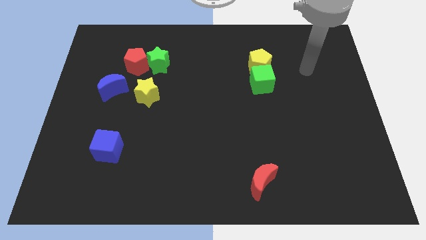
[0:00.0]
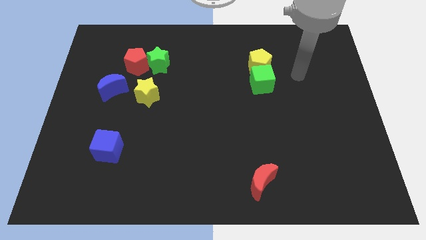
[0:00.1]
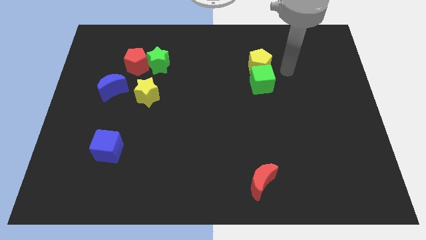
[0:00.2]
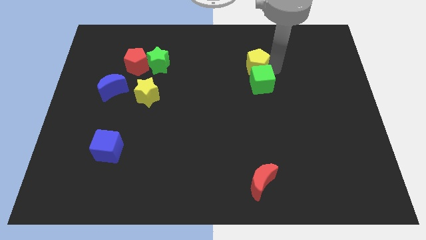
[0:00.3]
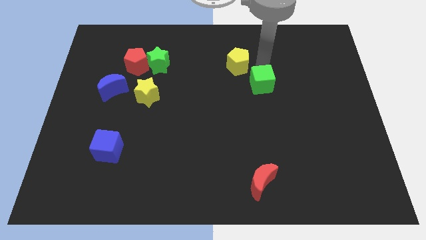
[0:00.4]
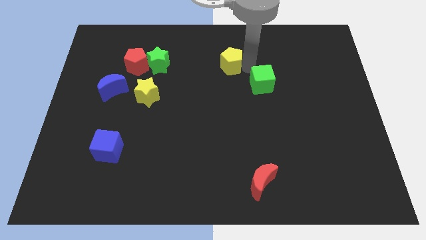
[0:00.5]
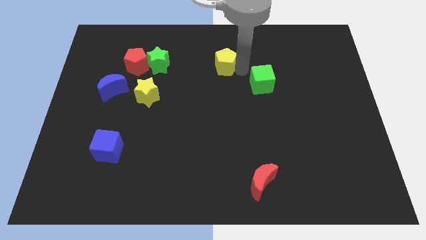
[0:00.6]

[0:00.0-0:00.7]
move the green cube away from the yellow pentagon

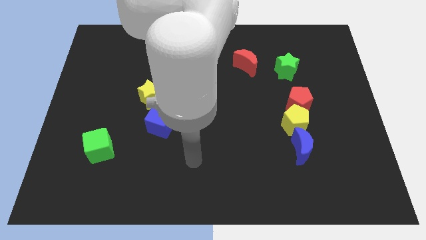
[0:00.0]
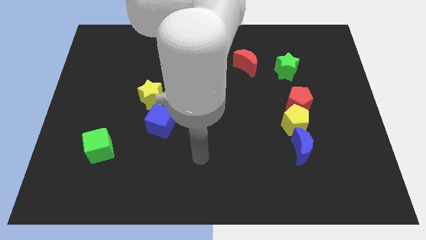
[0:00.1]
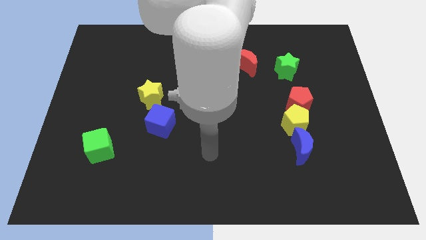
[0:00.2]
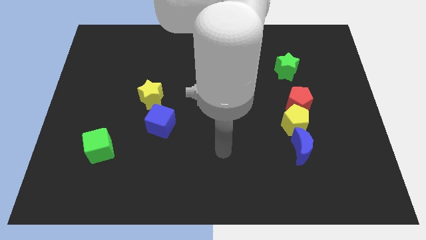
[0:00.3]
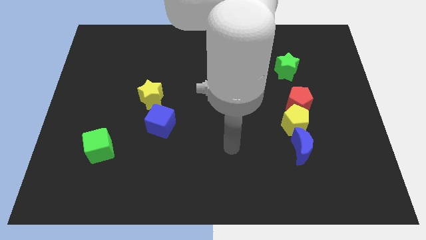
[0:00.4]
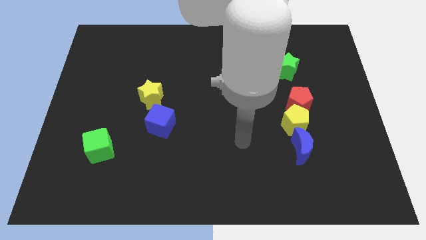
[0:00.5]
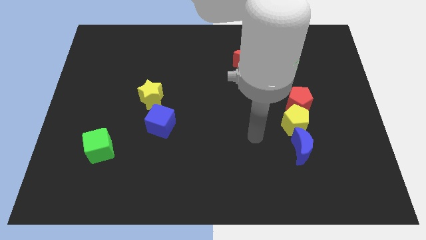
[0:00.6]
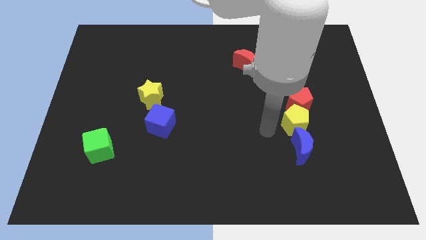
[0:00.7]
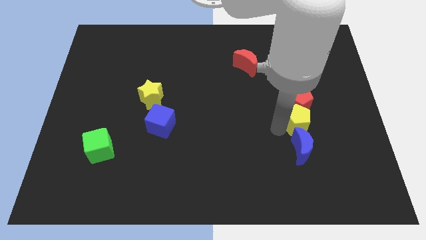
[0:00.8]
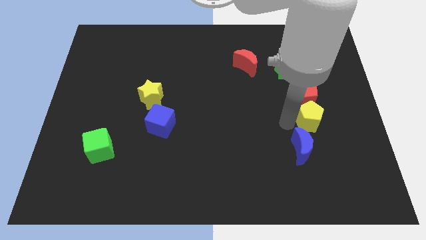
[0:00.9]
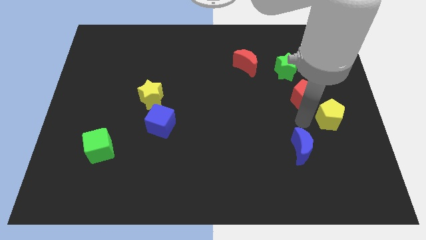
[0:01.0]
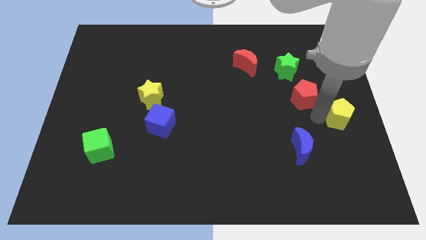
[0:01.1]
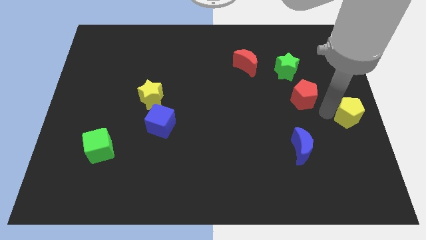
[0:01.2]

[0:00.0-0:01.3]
separate the red pentagon from the yellow pentagon

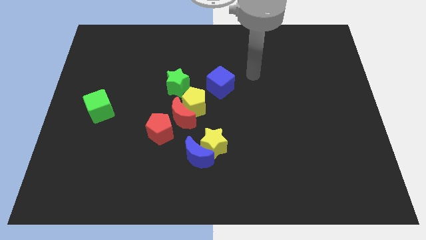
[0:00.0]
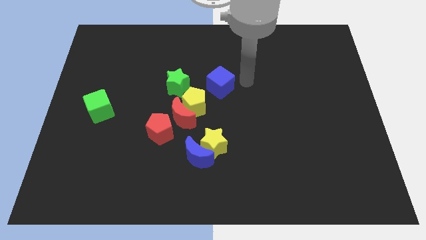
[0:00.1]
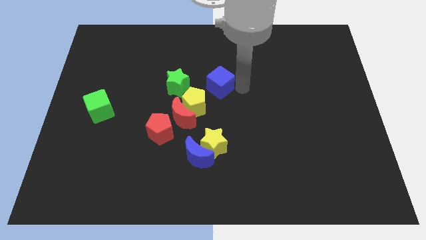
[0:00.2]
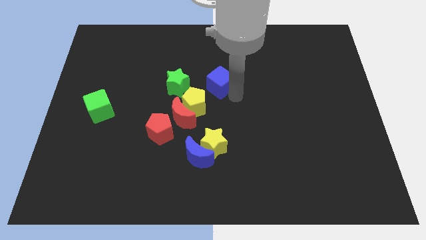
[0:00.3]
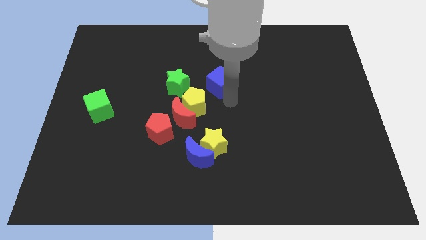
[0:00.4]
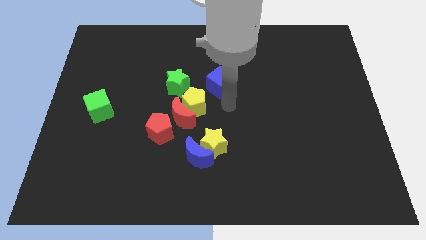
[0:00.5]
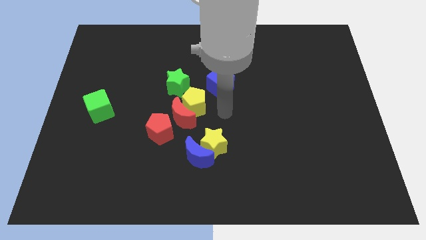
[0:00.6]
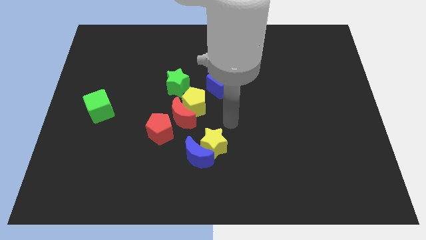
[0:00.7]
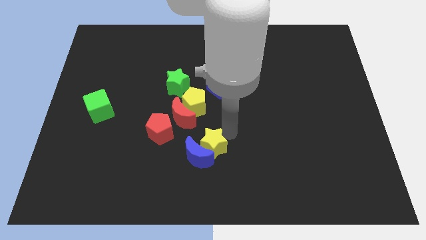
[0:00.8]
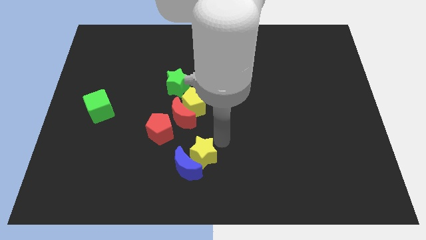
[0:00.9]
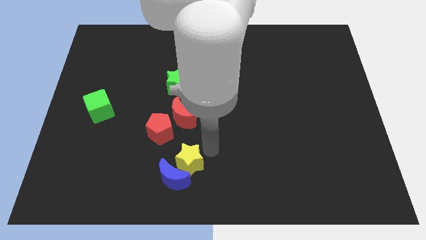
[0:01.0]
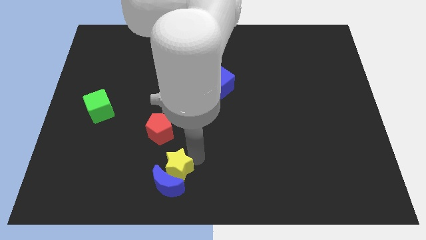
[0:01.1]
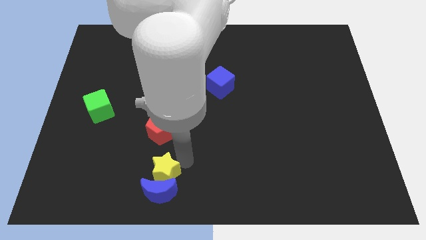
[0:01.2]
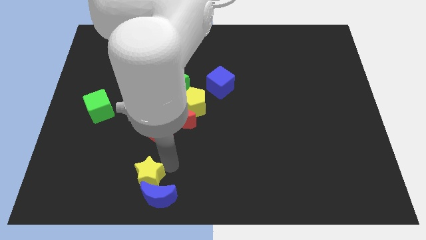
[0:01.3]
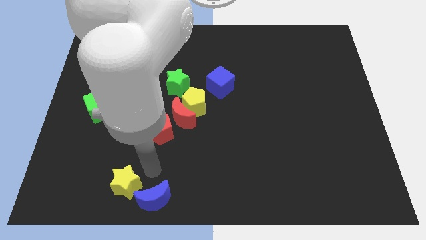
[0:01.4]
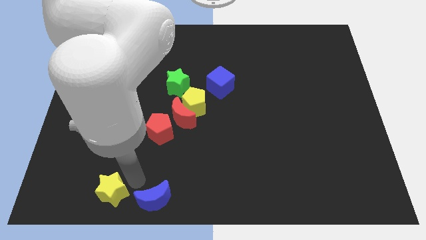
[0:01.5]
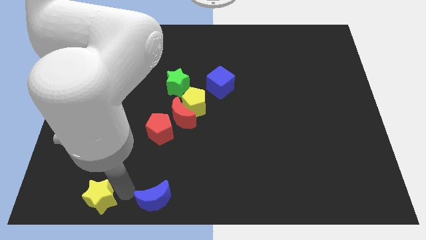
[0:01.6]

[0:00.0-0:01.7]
move the blue moon away from the yellow star

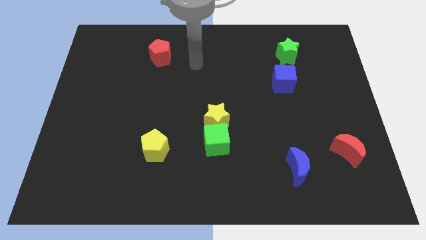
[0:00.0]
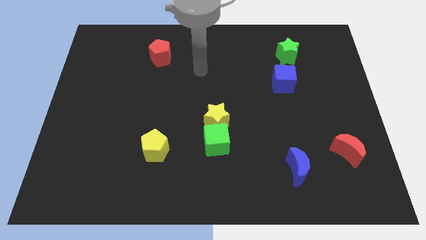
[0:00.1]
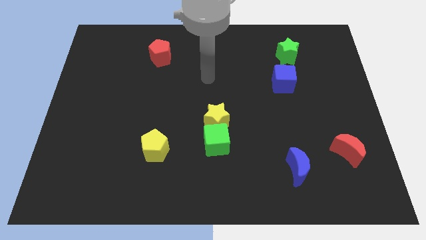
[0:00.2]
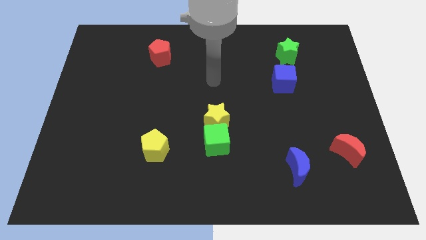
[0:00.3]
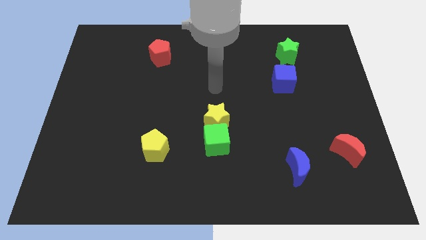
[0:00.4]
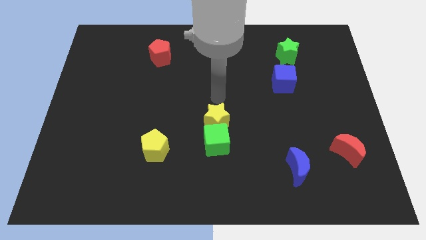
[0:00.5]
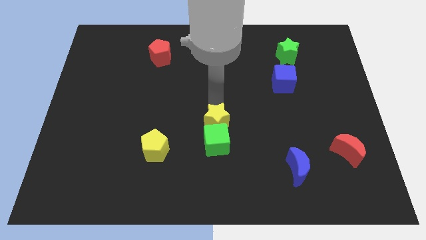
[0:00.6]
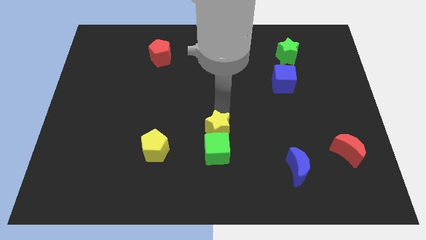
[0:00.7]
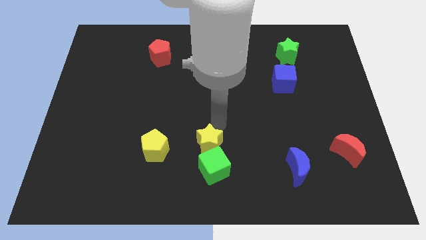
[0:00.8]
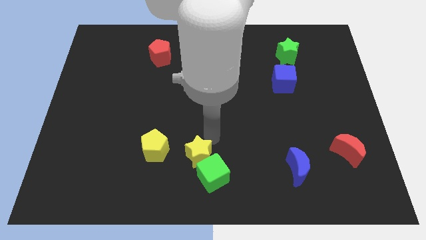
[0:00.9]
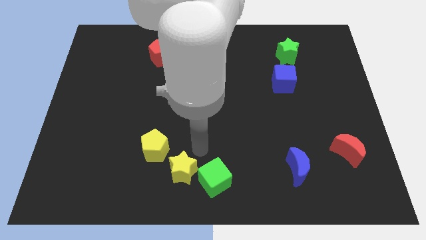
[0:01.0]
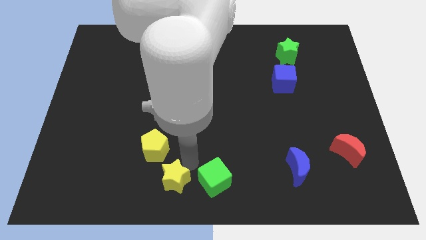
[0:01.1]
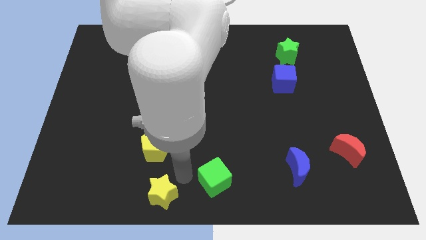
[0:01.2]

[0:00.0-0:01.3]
move the green cube away from the yellow star

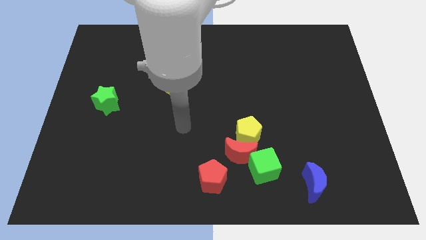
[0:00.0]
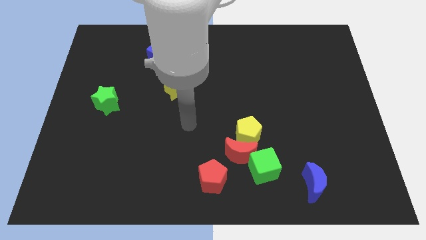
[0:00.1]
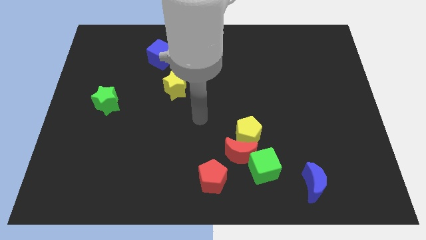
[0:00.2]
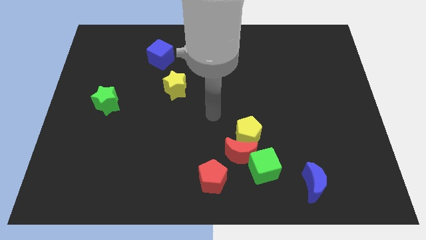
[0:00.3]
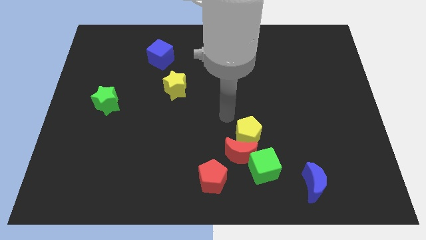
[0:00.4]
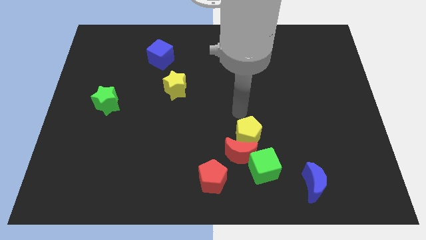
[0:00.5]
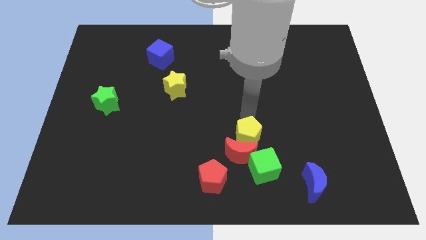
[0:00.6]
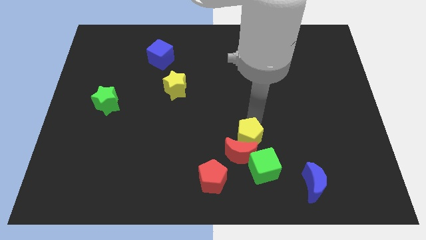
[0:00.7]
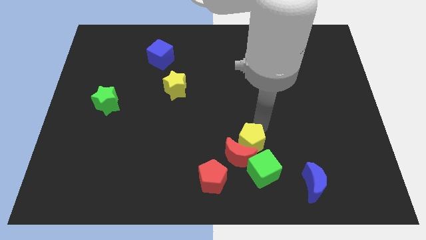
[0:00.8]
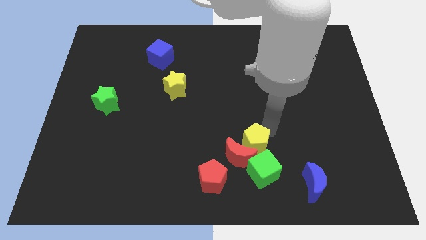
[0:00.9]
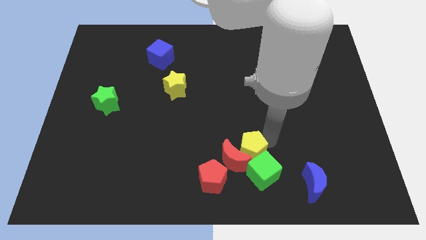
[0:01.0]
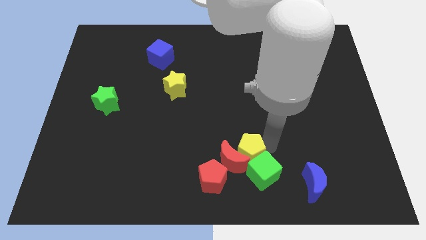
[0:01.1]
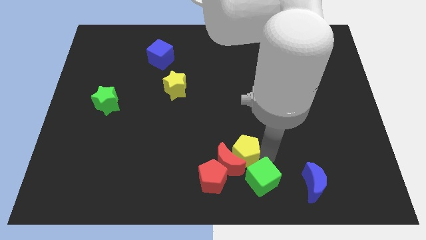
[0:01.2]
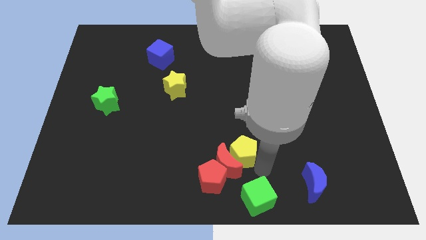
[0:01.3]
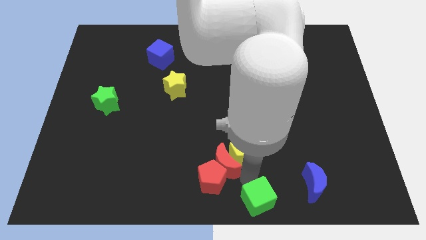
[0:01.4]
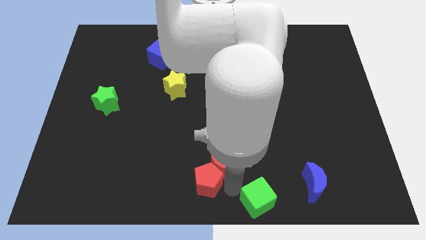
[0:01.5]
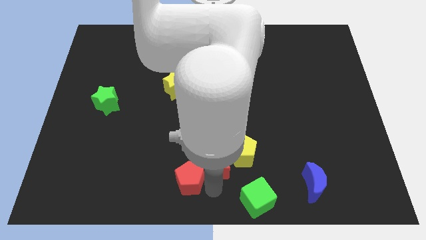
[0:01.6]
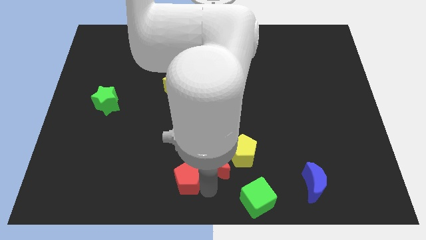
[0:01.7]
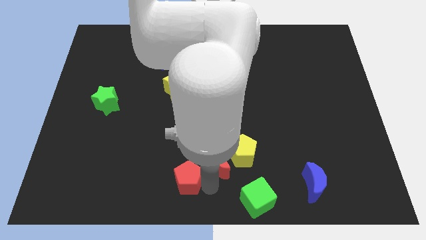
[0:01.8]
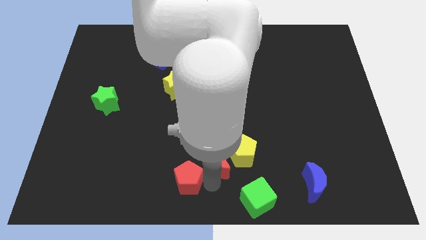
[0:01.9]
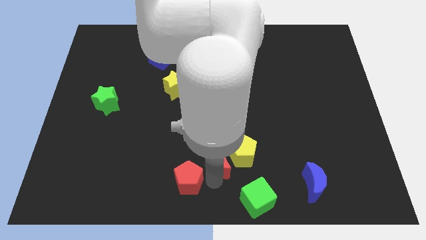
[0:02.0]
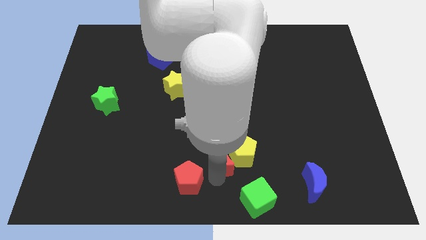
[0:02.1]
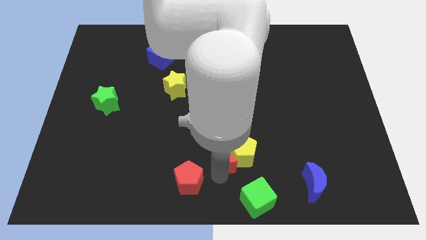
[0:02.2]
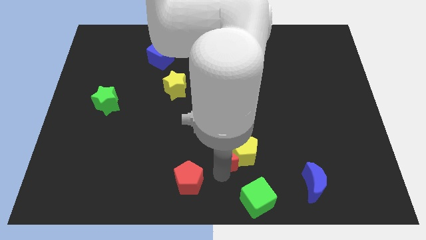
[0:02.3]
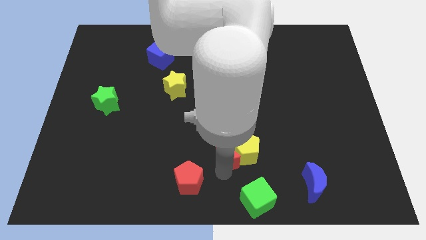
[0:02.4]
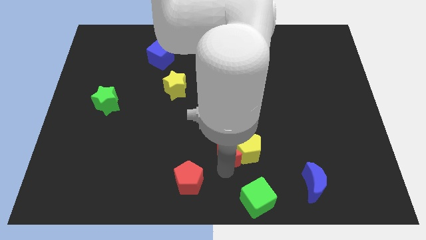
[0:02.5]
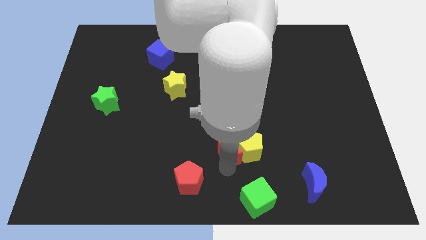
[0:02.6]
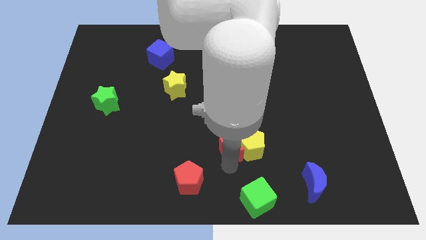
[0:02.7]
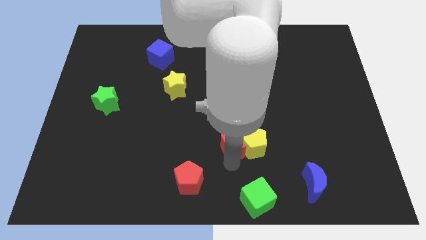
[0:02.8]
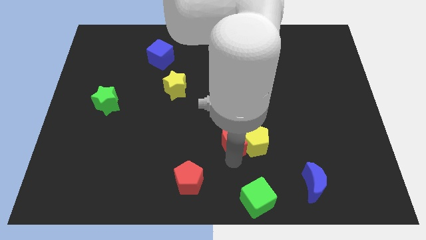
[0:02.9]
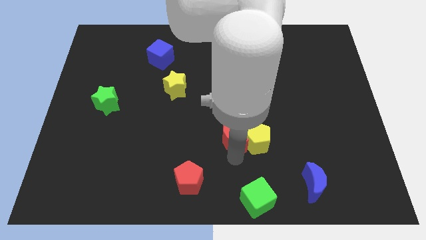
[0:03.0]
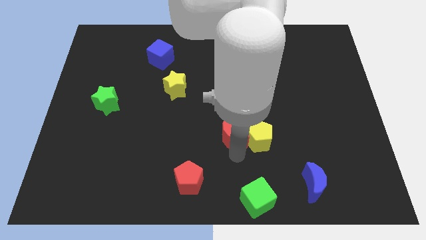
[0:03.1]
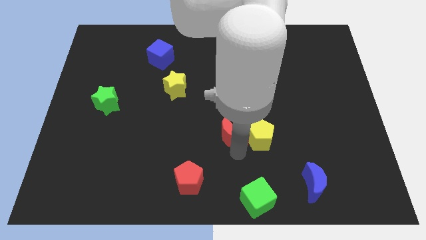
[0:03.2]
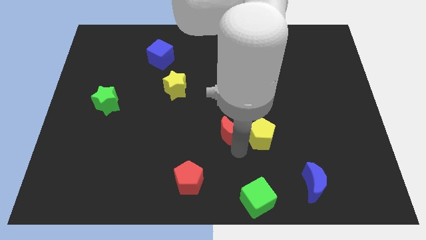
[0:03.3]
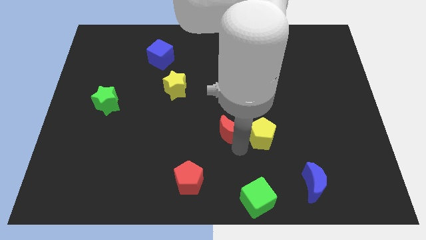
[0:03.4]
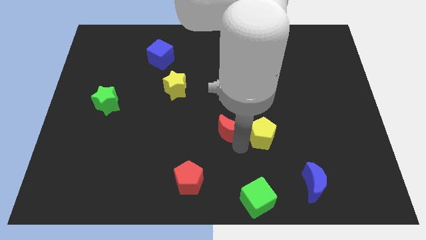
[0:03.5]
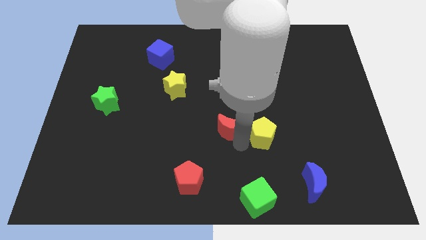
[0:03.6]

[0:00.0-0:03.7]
separate the red moon from the yellow pentagon, green cube, and red pentagon

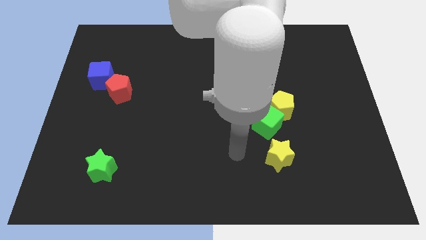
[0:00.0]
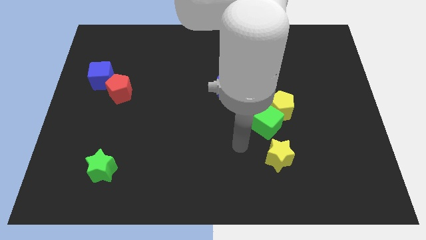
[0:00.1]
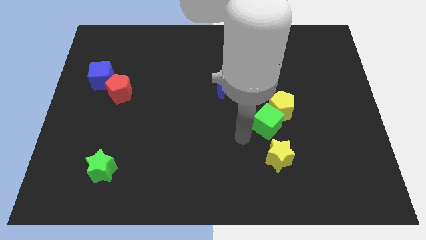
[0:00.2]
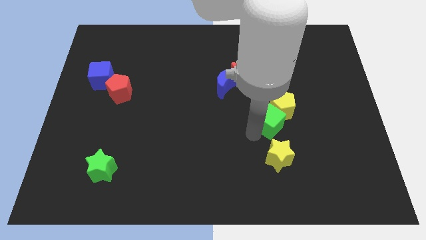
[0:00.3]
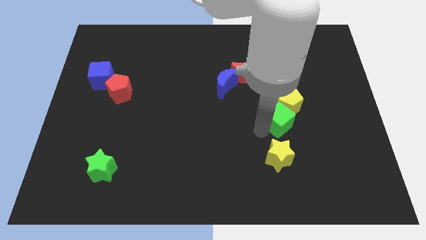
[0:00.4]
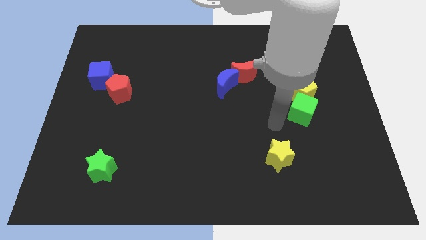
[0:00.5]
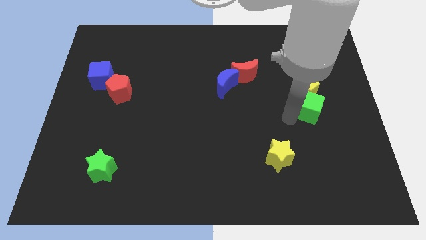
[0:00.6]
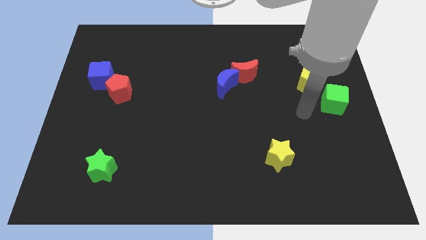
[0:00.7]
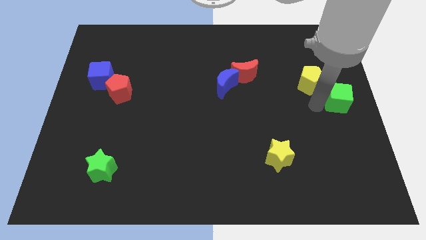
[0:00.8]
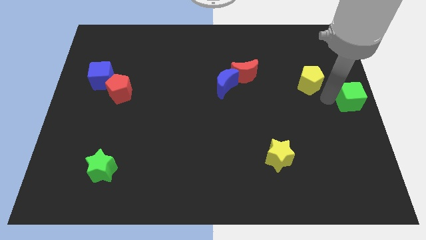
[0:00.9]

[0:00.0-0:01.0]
separate the yellow pentagon from the green cube
